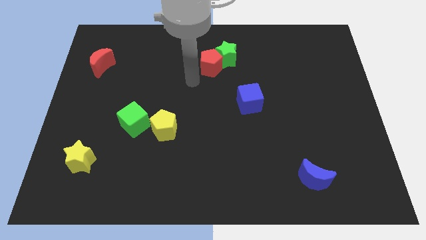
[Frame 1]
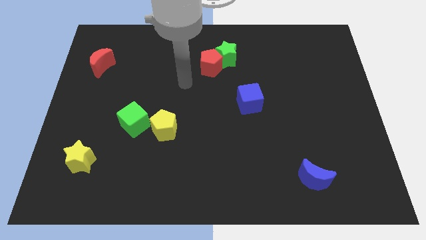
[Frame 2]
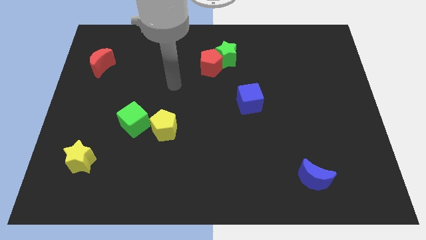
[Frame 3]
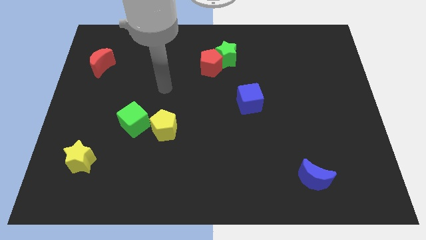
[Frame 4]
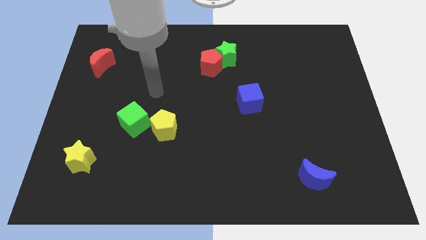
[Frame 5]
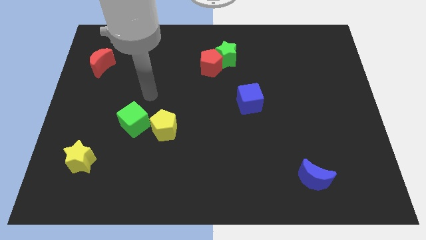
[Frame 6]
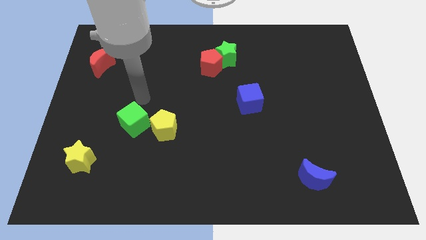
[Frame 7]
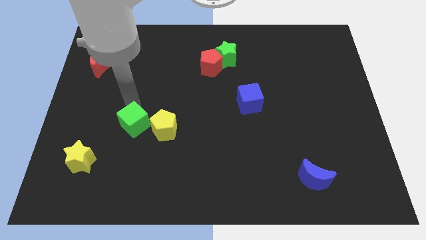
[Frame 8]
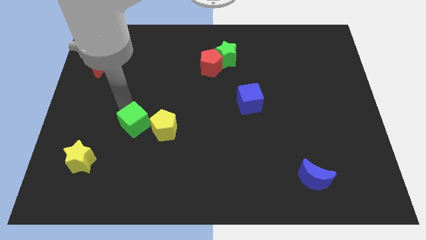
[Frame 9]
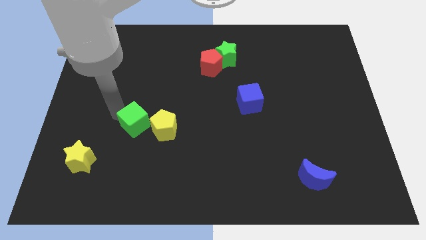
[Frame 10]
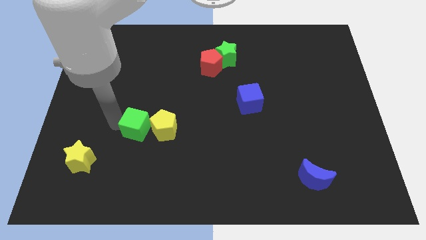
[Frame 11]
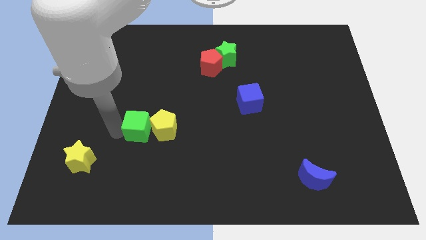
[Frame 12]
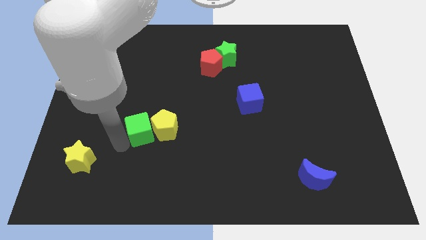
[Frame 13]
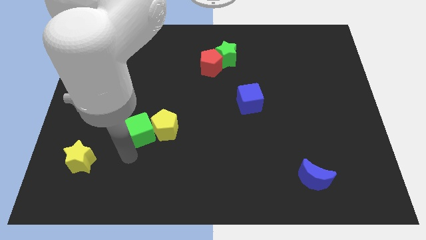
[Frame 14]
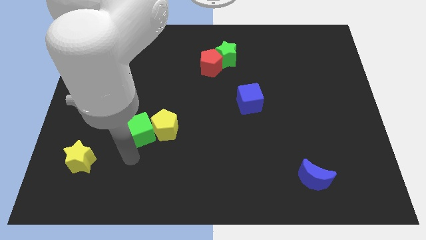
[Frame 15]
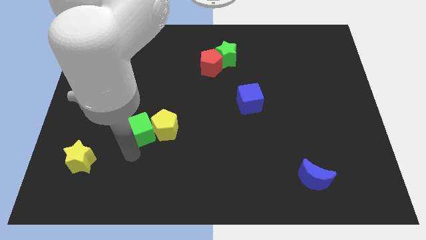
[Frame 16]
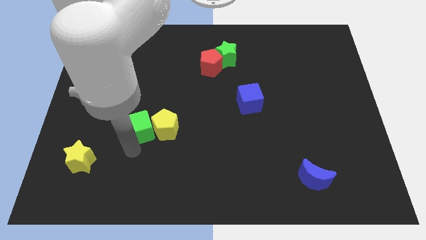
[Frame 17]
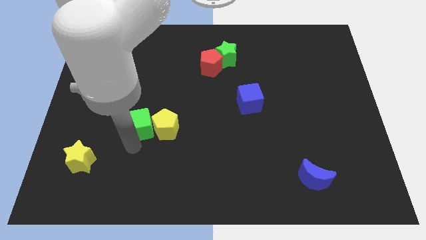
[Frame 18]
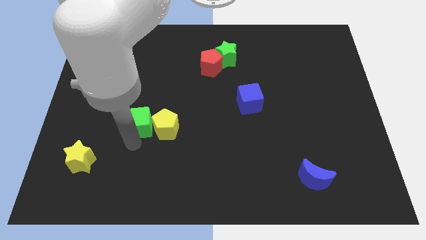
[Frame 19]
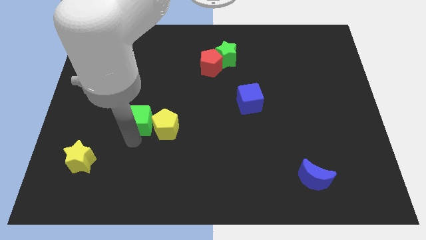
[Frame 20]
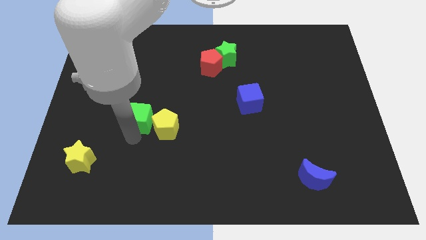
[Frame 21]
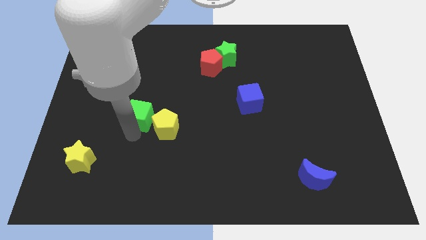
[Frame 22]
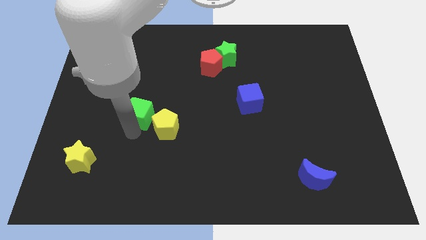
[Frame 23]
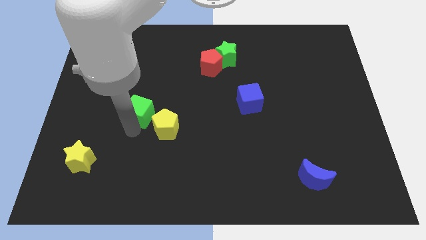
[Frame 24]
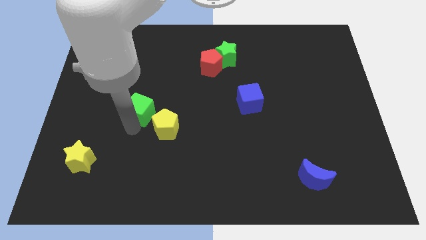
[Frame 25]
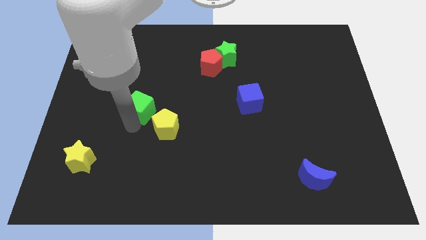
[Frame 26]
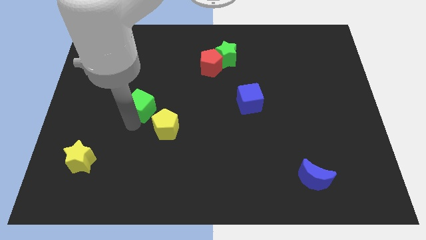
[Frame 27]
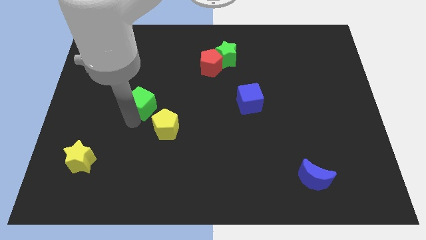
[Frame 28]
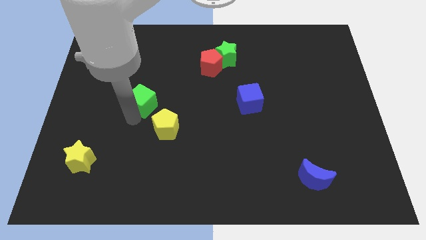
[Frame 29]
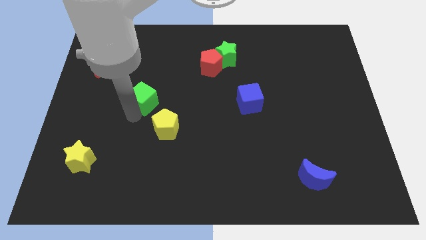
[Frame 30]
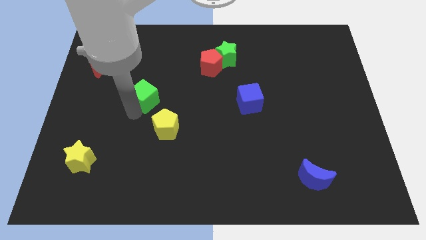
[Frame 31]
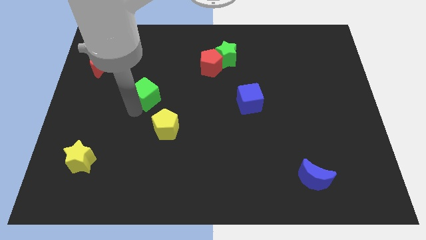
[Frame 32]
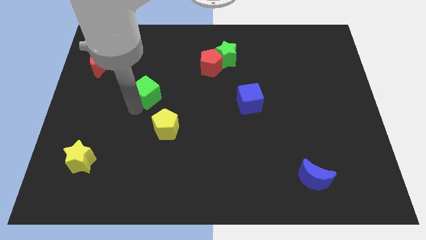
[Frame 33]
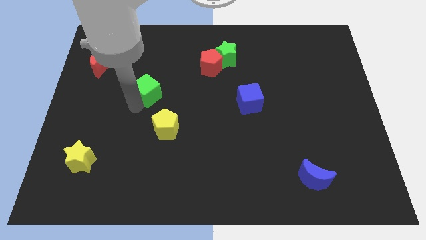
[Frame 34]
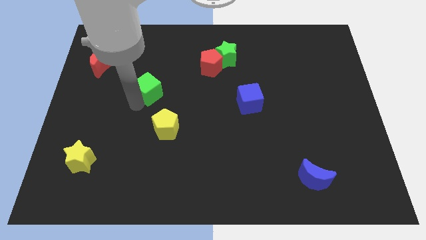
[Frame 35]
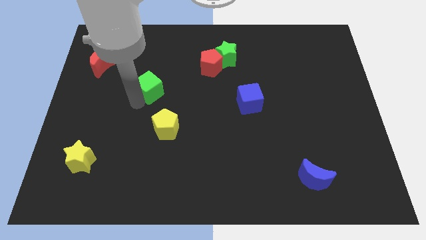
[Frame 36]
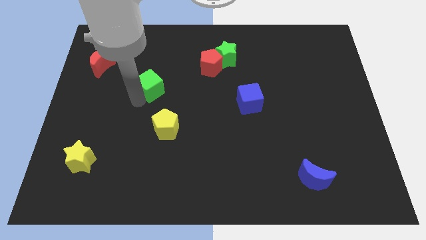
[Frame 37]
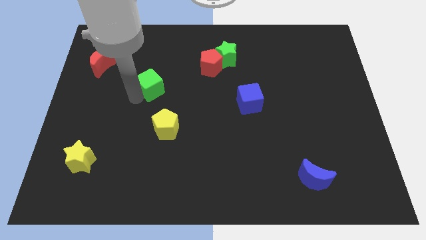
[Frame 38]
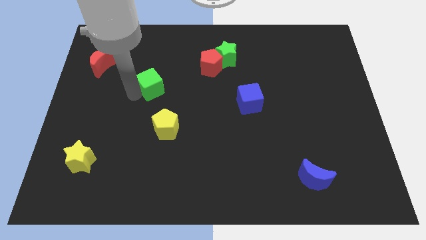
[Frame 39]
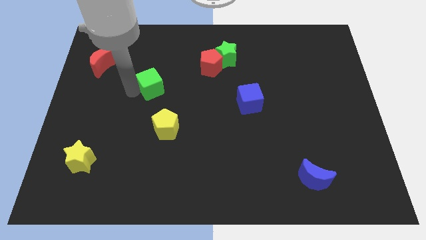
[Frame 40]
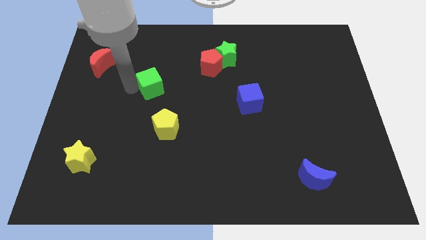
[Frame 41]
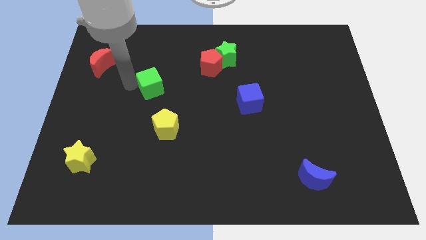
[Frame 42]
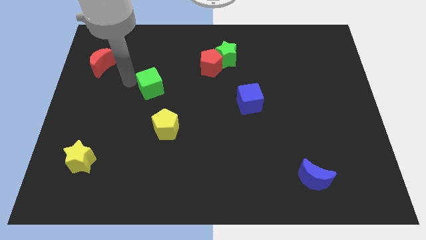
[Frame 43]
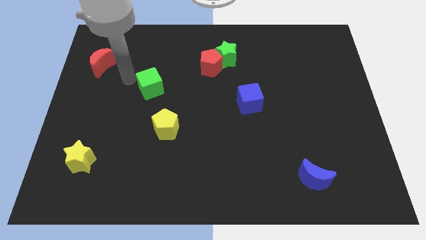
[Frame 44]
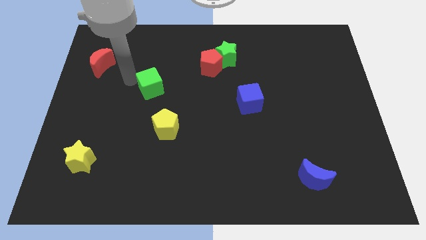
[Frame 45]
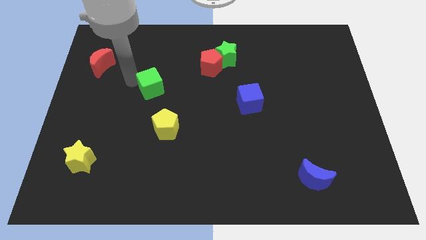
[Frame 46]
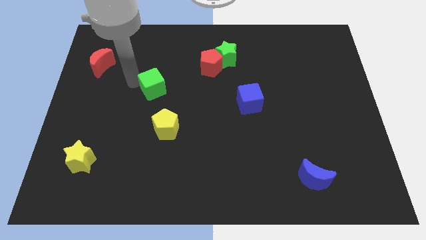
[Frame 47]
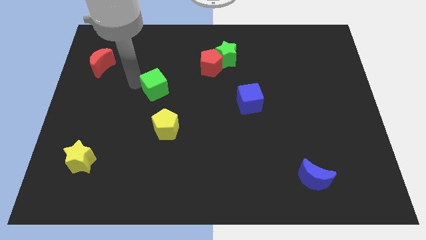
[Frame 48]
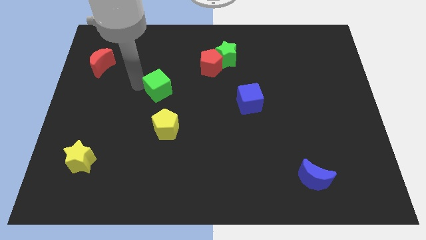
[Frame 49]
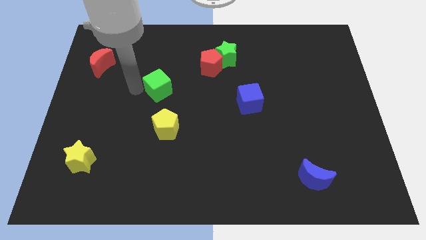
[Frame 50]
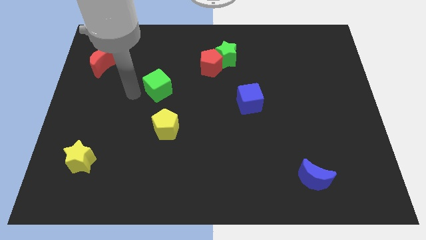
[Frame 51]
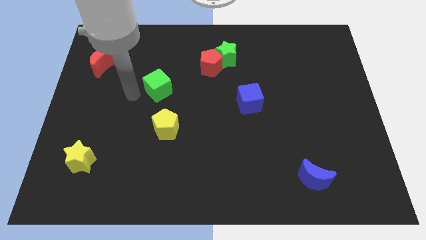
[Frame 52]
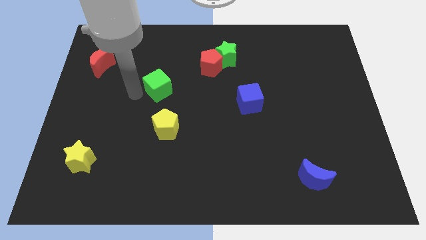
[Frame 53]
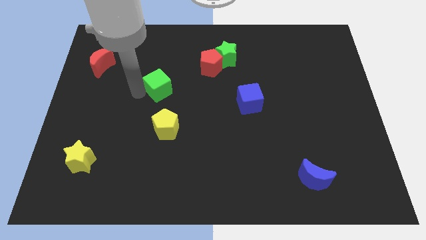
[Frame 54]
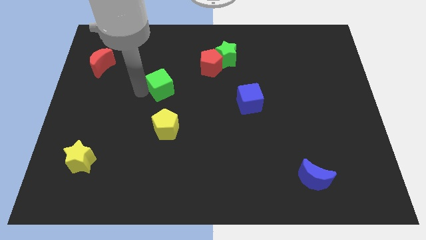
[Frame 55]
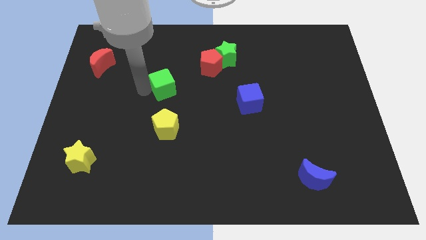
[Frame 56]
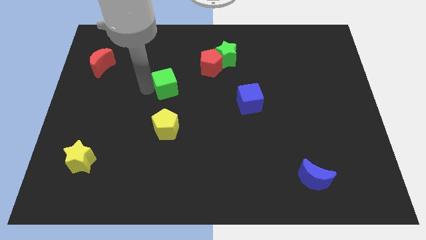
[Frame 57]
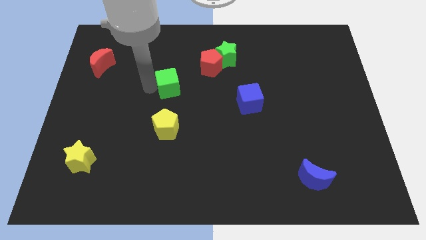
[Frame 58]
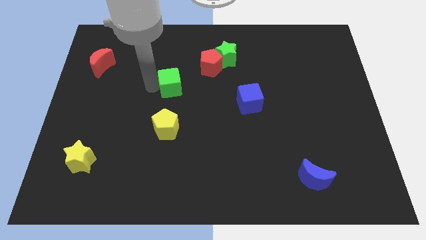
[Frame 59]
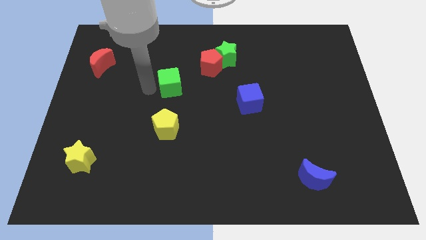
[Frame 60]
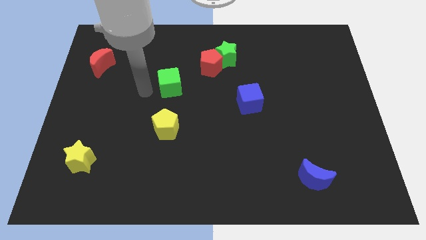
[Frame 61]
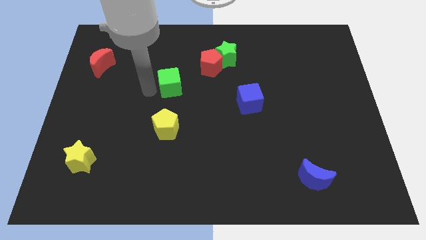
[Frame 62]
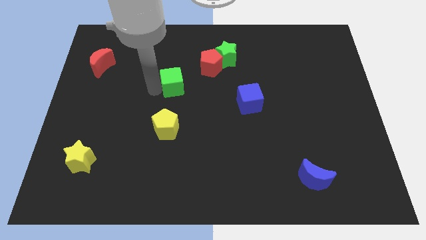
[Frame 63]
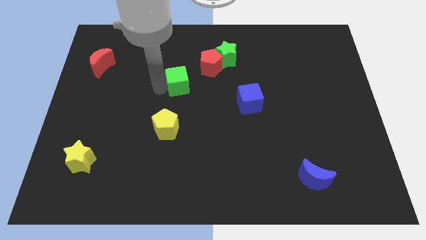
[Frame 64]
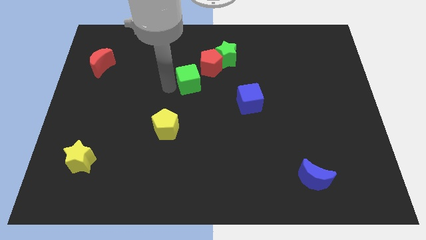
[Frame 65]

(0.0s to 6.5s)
push the green cube to the bottom left side of the green star
